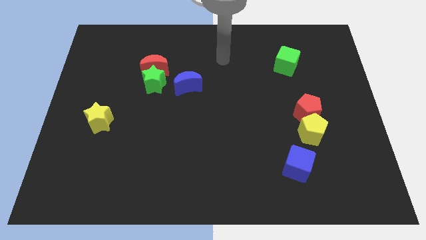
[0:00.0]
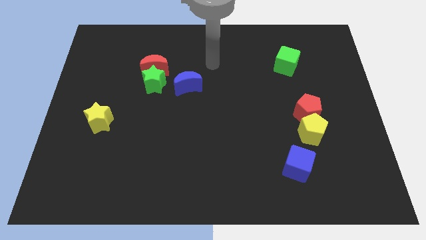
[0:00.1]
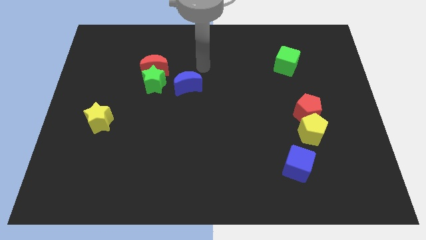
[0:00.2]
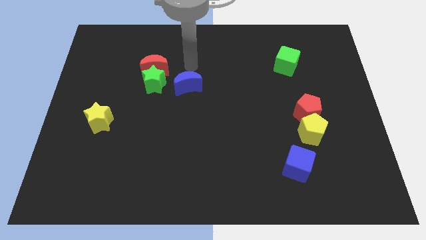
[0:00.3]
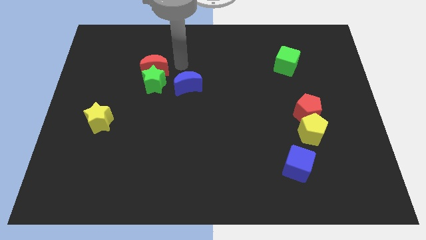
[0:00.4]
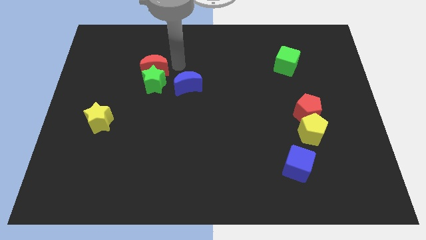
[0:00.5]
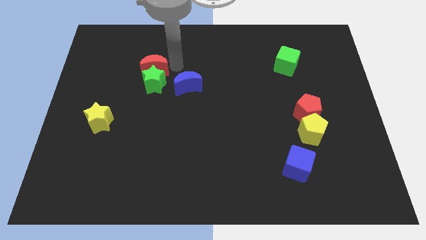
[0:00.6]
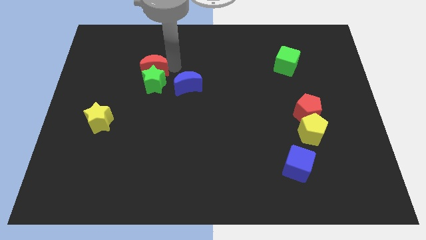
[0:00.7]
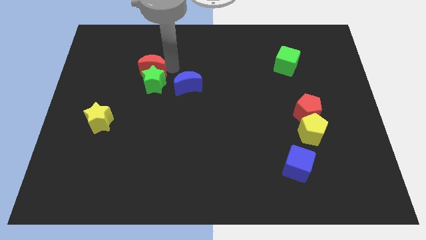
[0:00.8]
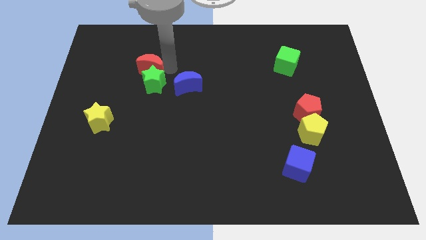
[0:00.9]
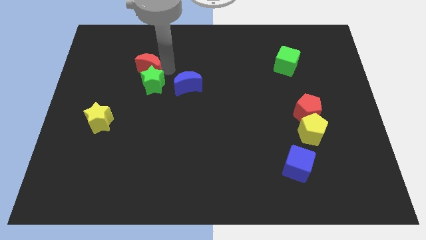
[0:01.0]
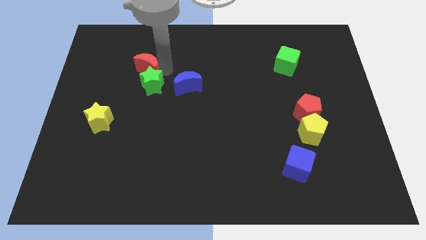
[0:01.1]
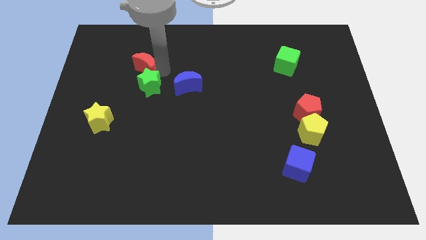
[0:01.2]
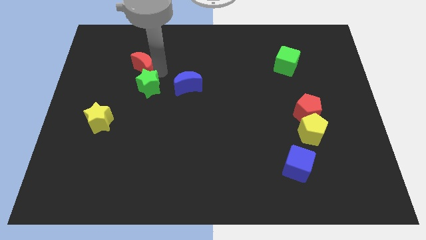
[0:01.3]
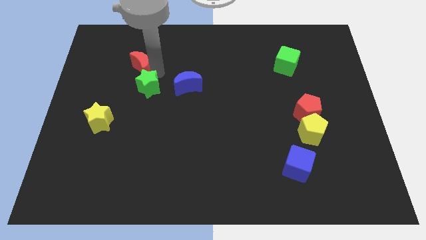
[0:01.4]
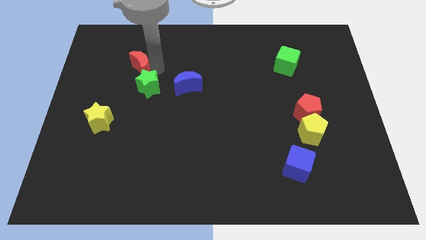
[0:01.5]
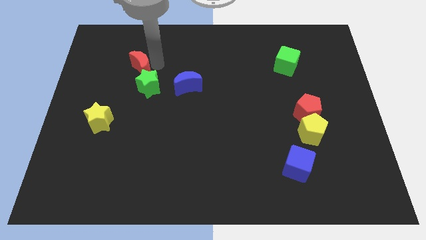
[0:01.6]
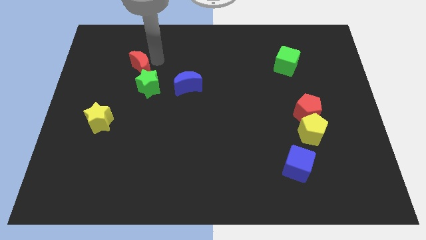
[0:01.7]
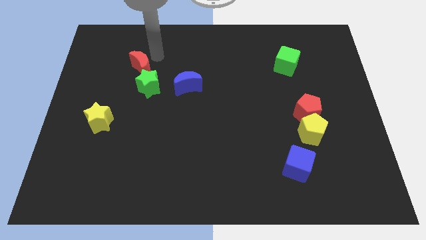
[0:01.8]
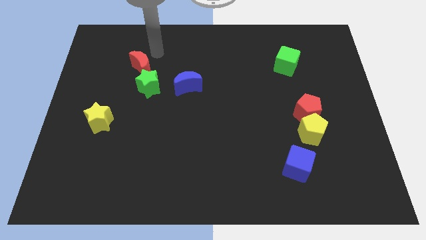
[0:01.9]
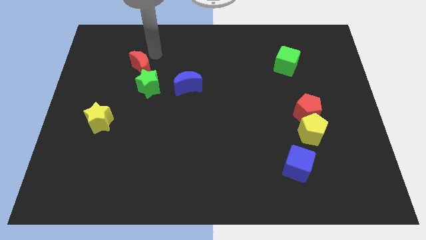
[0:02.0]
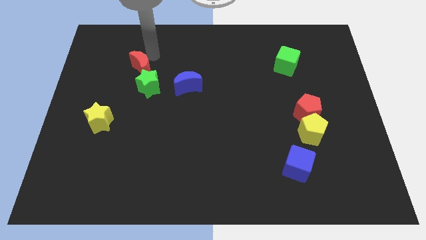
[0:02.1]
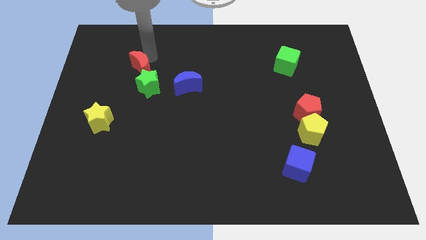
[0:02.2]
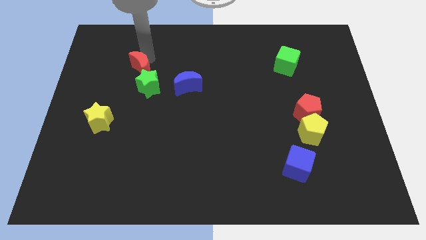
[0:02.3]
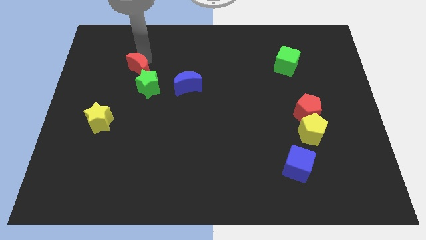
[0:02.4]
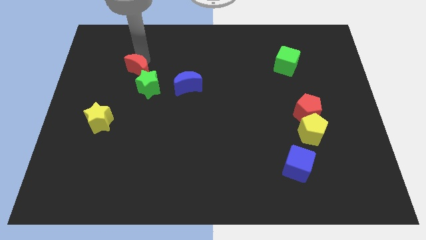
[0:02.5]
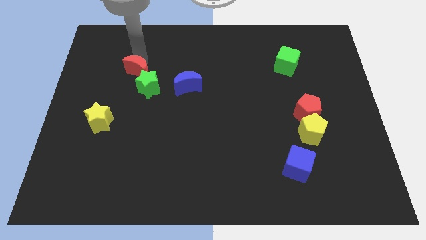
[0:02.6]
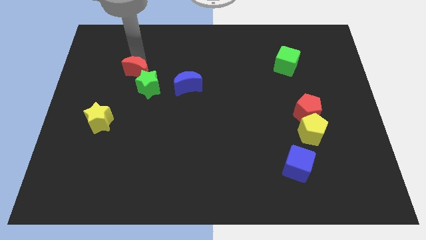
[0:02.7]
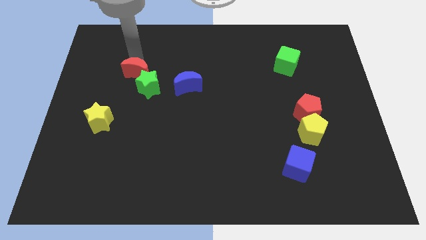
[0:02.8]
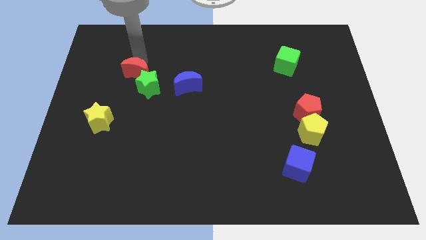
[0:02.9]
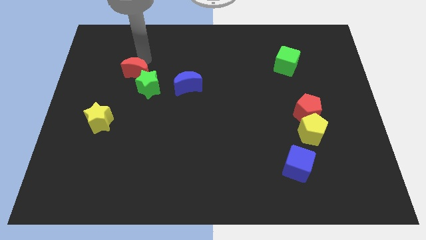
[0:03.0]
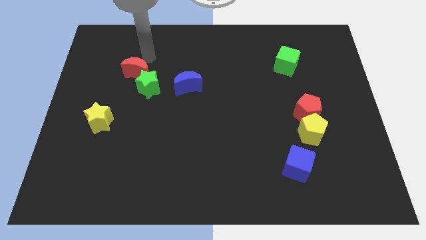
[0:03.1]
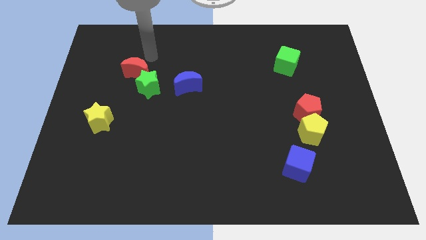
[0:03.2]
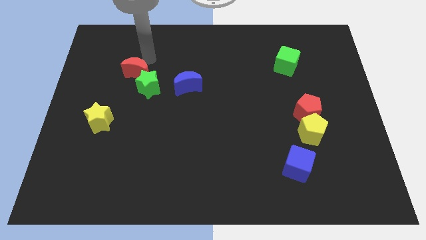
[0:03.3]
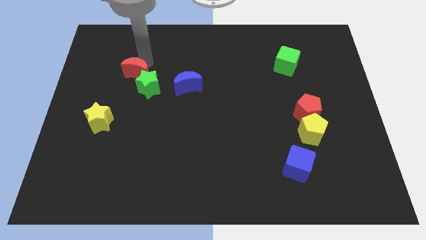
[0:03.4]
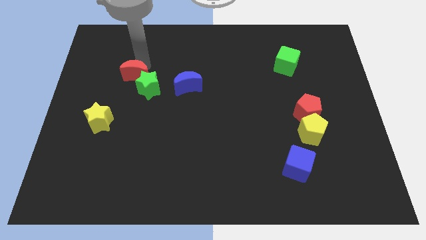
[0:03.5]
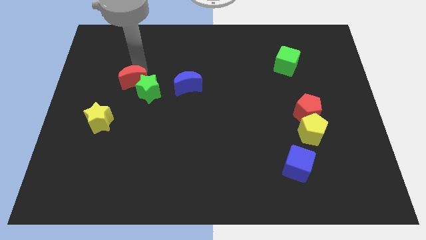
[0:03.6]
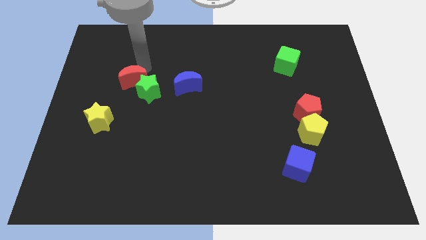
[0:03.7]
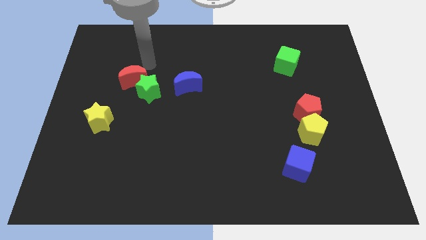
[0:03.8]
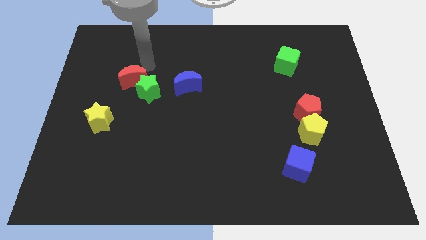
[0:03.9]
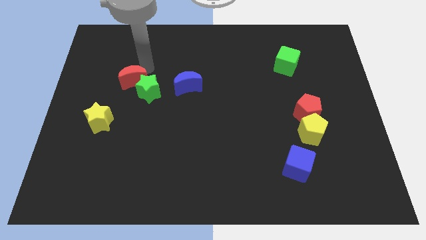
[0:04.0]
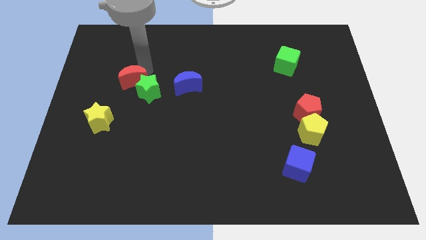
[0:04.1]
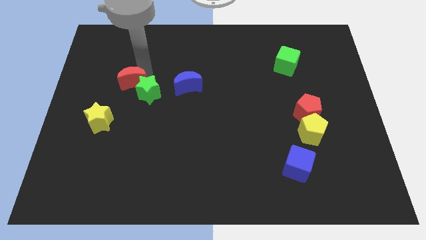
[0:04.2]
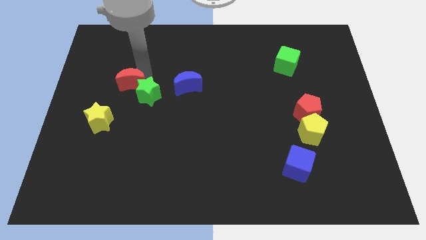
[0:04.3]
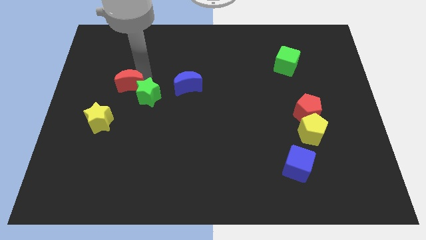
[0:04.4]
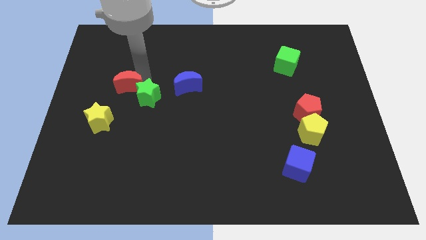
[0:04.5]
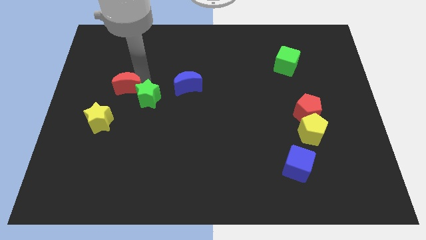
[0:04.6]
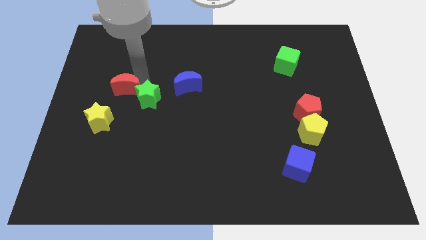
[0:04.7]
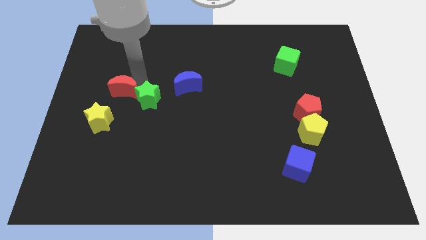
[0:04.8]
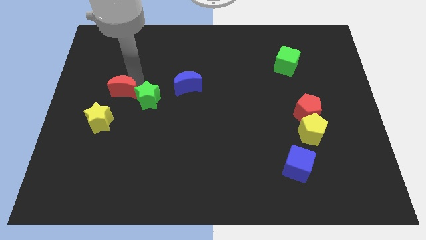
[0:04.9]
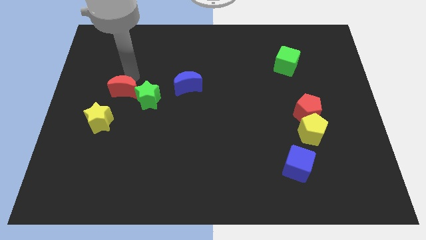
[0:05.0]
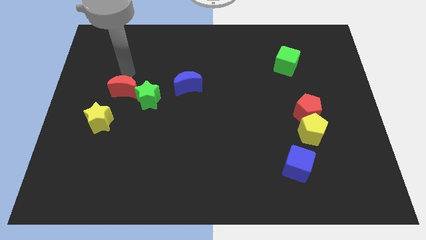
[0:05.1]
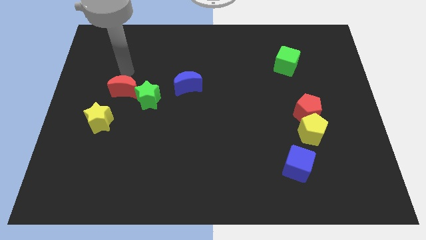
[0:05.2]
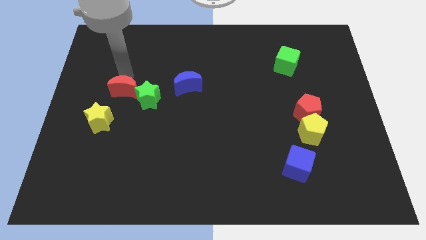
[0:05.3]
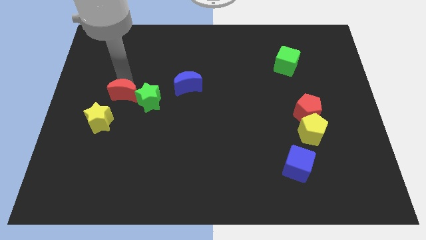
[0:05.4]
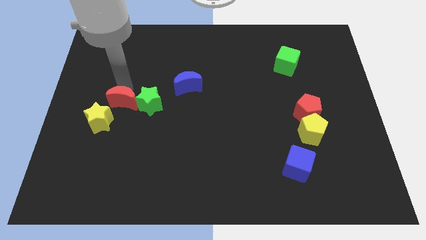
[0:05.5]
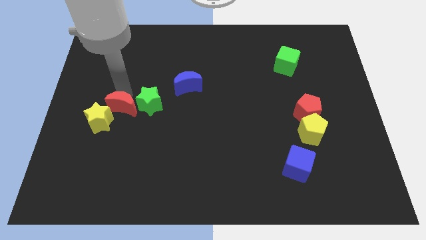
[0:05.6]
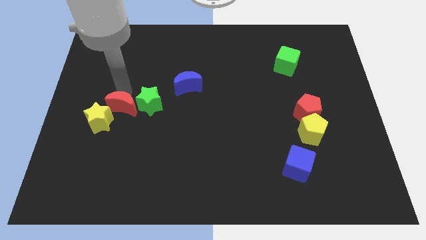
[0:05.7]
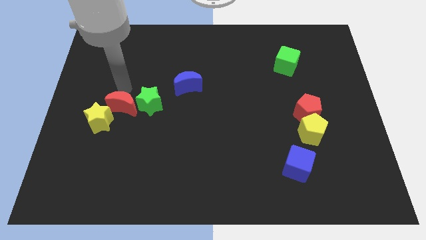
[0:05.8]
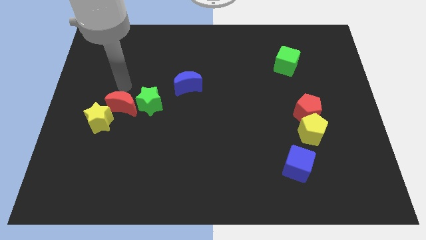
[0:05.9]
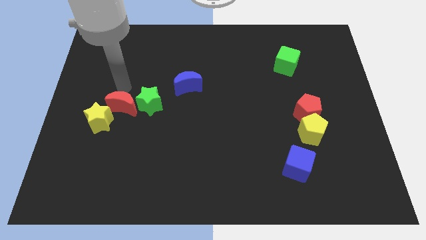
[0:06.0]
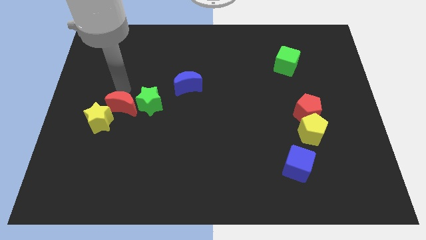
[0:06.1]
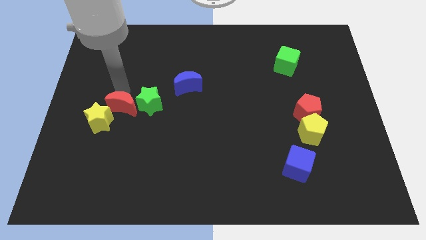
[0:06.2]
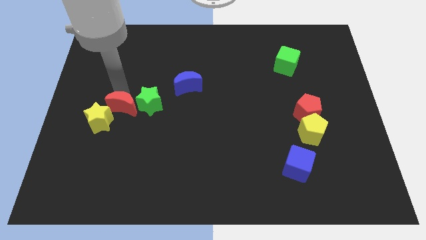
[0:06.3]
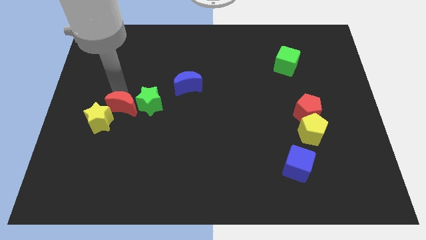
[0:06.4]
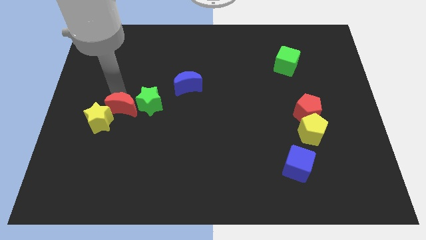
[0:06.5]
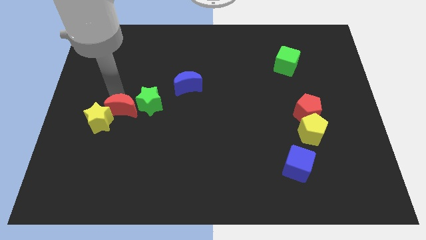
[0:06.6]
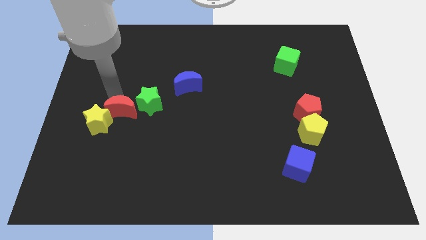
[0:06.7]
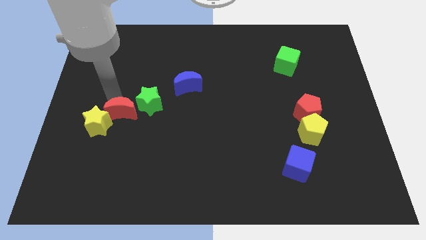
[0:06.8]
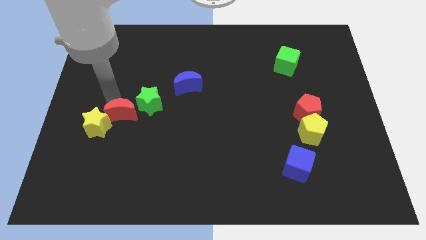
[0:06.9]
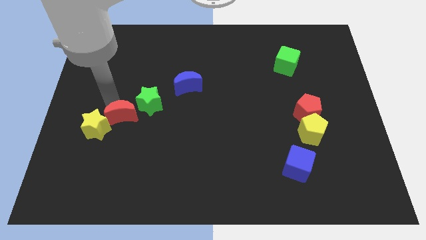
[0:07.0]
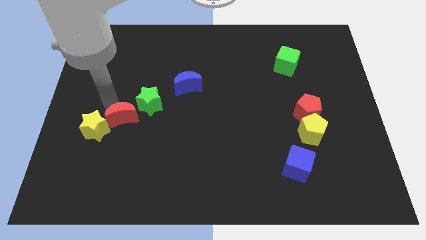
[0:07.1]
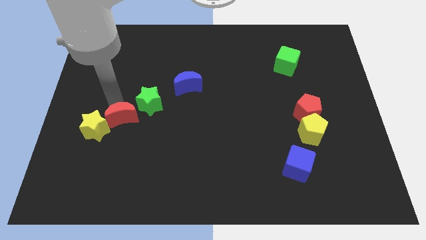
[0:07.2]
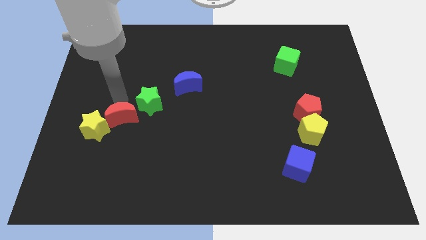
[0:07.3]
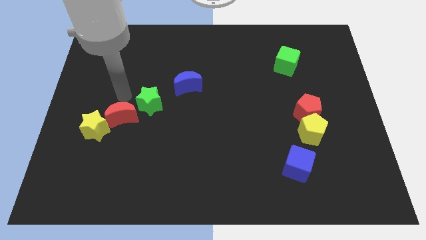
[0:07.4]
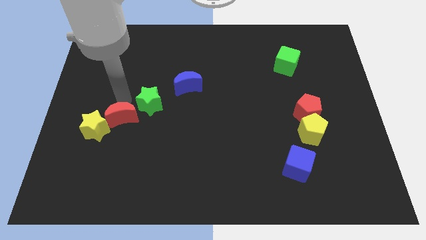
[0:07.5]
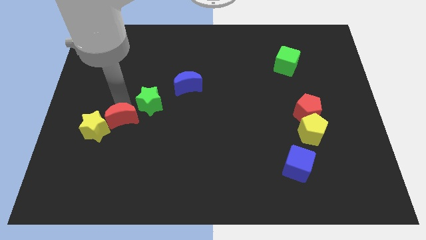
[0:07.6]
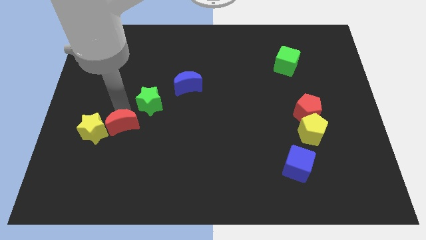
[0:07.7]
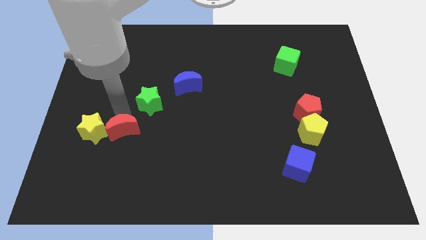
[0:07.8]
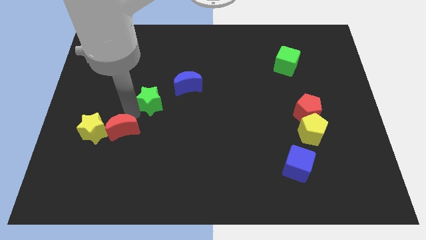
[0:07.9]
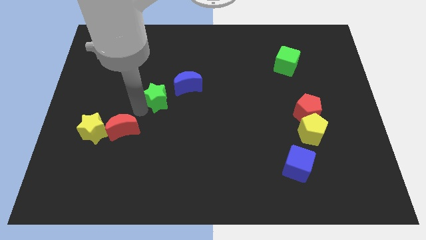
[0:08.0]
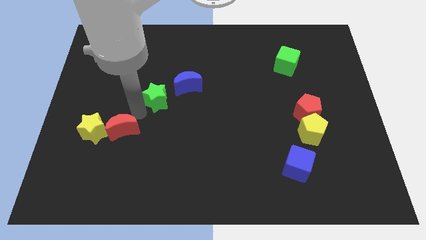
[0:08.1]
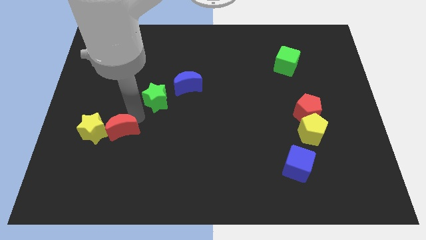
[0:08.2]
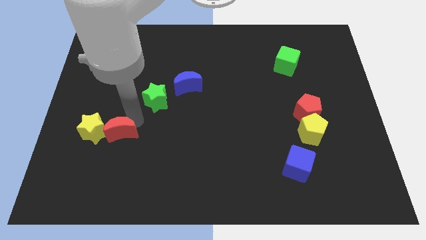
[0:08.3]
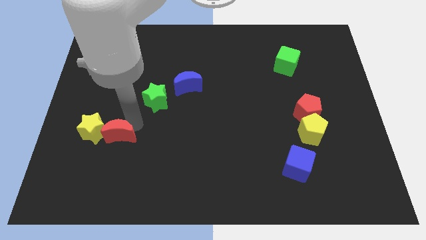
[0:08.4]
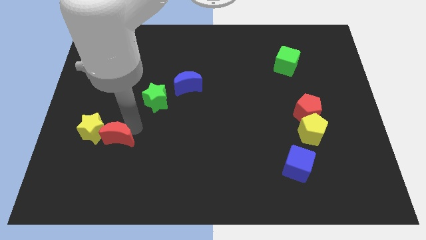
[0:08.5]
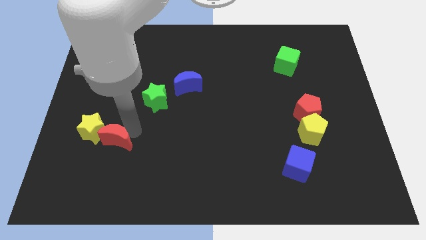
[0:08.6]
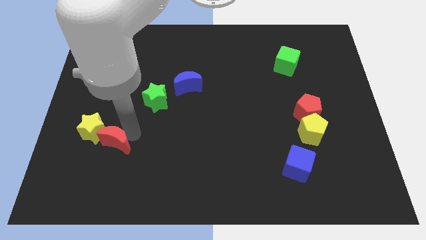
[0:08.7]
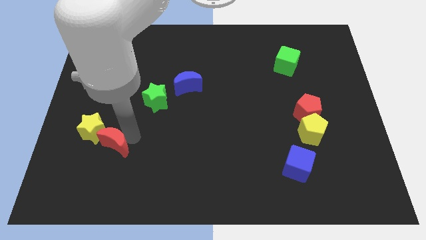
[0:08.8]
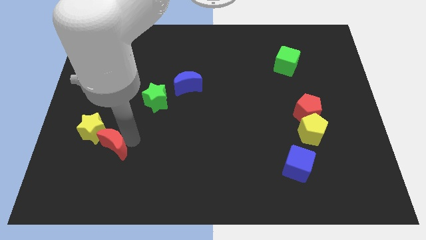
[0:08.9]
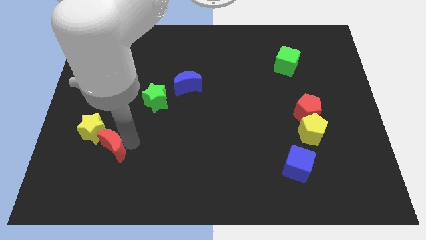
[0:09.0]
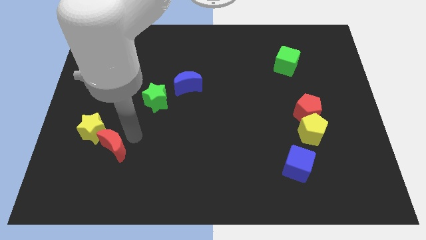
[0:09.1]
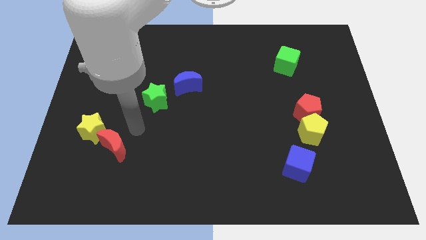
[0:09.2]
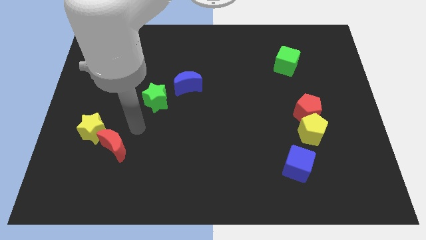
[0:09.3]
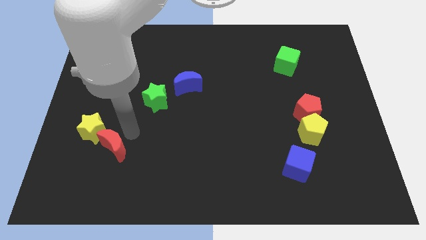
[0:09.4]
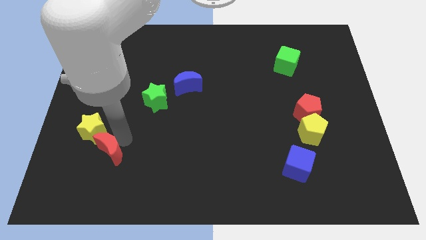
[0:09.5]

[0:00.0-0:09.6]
push the red moon to the bottom side of the yellow star
